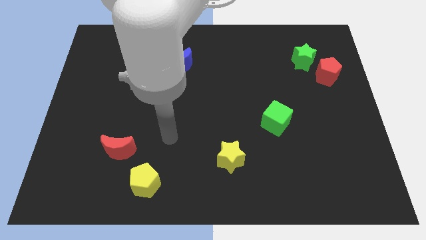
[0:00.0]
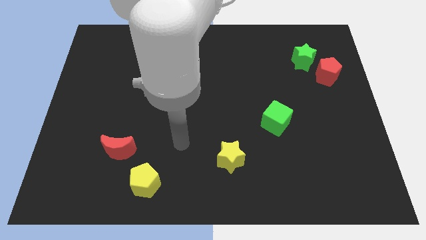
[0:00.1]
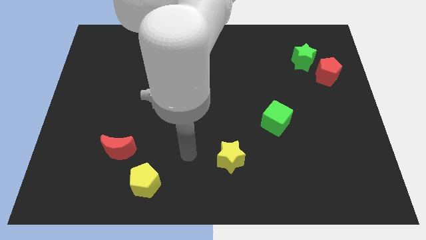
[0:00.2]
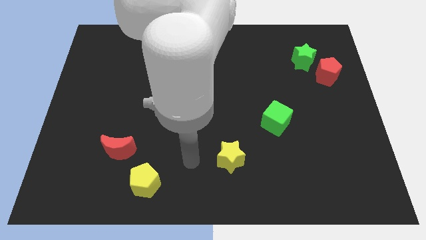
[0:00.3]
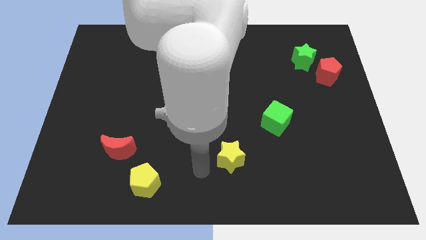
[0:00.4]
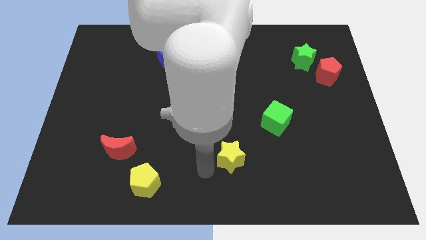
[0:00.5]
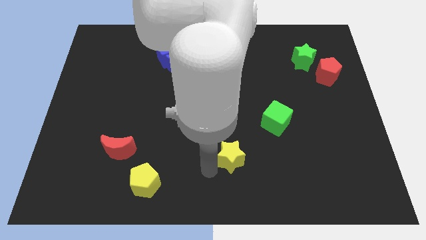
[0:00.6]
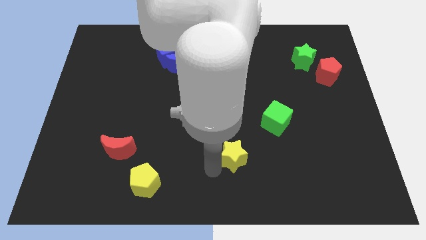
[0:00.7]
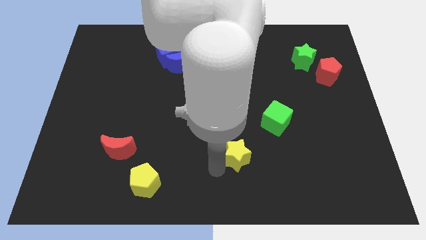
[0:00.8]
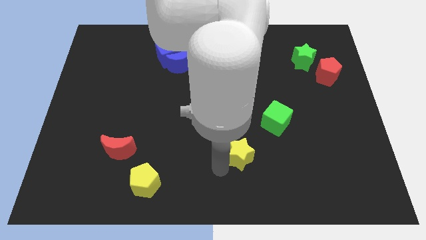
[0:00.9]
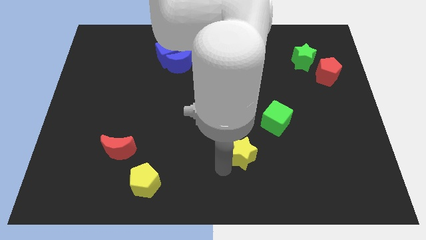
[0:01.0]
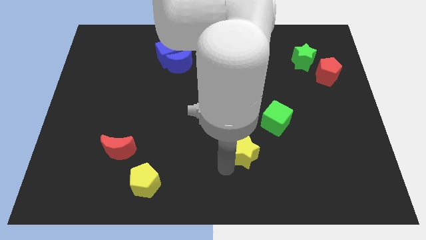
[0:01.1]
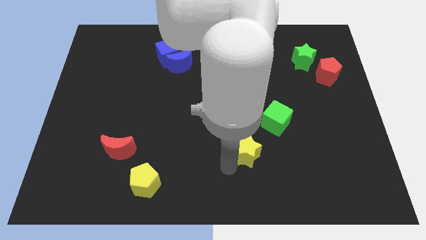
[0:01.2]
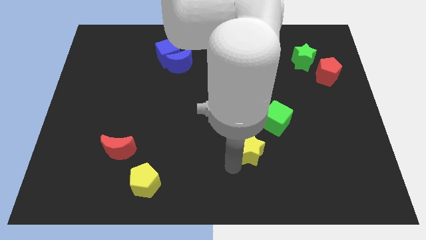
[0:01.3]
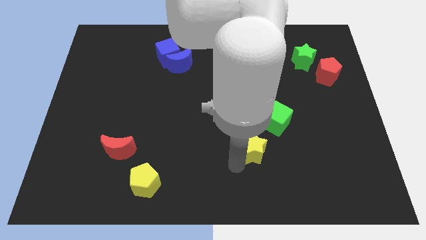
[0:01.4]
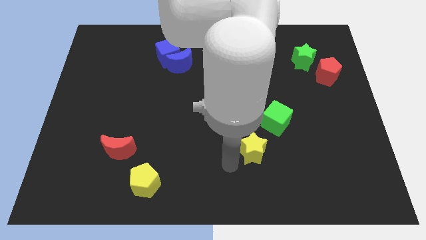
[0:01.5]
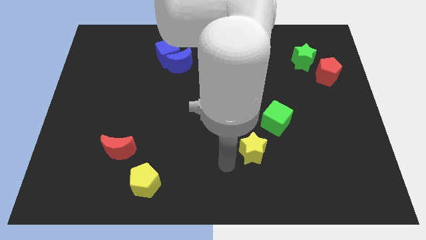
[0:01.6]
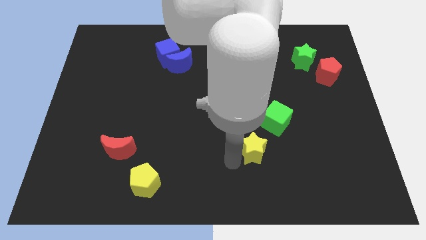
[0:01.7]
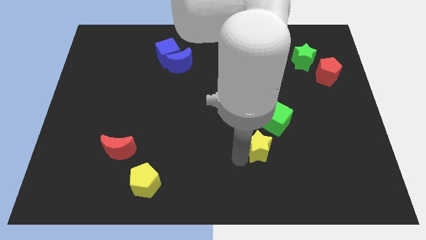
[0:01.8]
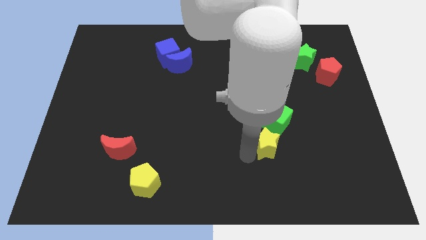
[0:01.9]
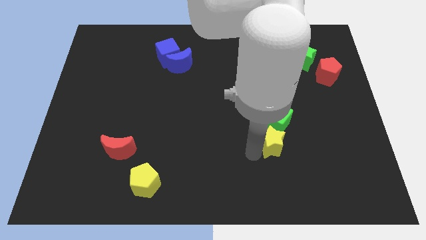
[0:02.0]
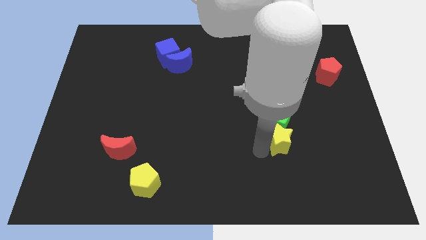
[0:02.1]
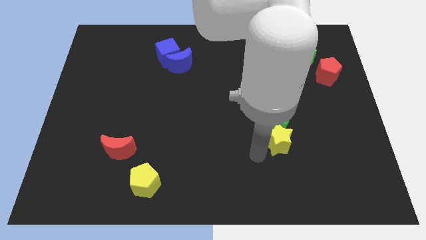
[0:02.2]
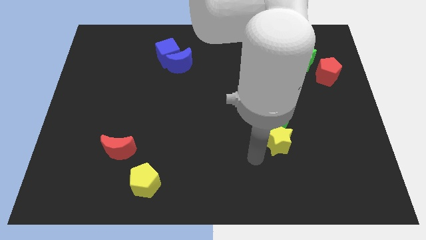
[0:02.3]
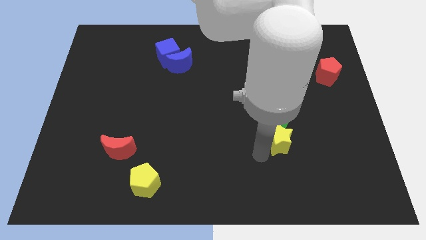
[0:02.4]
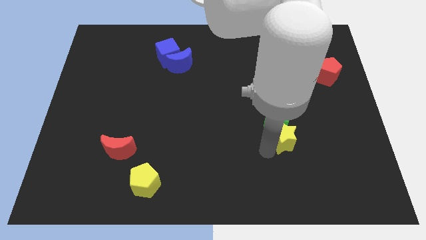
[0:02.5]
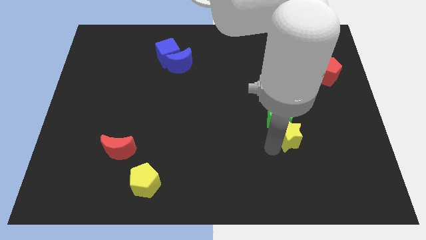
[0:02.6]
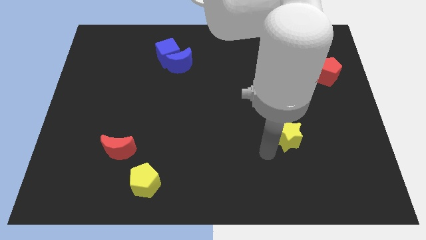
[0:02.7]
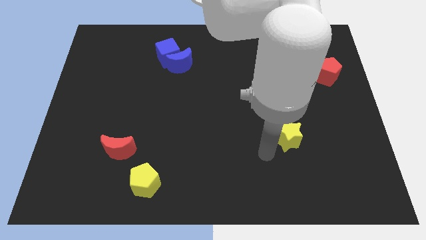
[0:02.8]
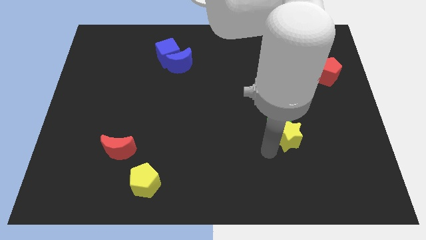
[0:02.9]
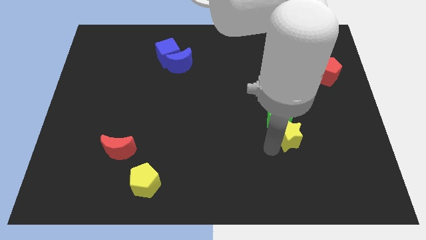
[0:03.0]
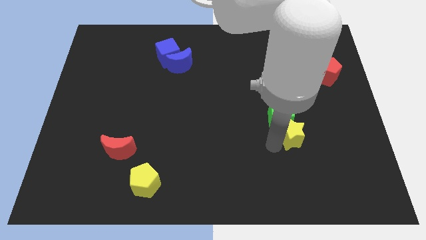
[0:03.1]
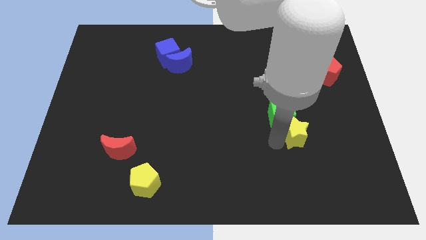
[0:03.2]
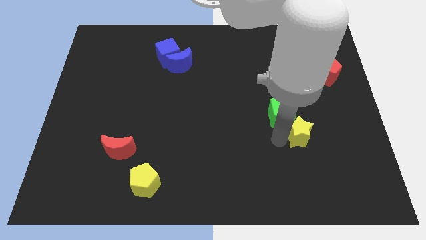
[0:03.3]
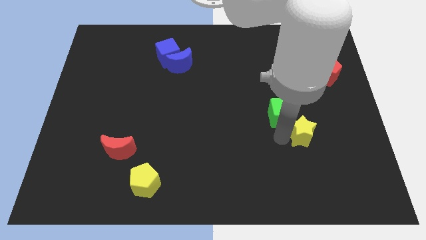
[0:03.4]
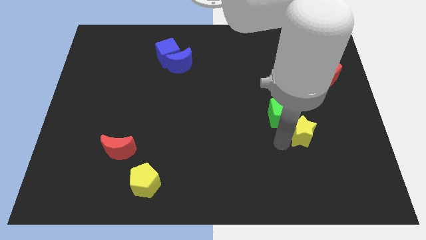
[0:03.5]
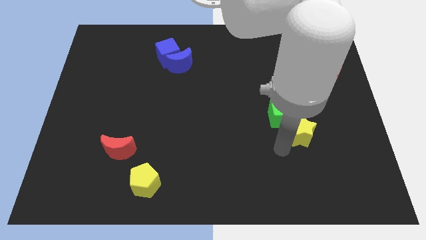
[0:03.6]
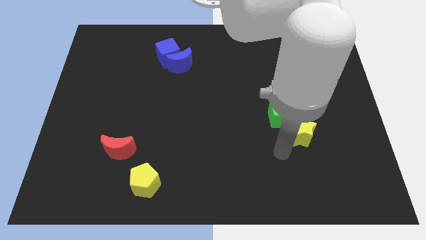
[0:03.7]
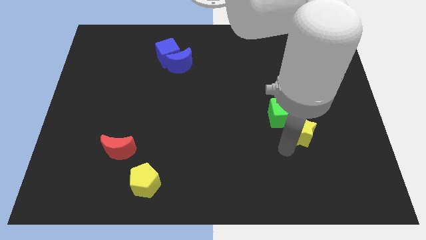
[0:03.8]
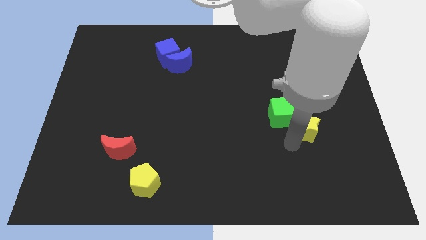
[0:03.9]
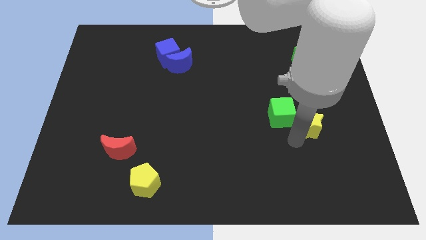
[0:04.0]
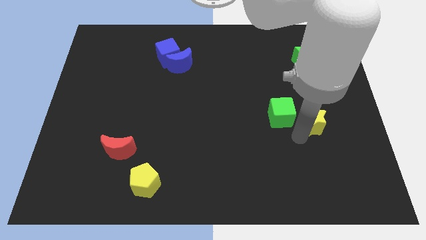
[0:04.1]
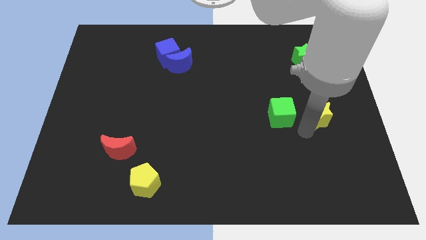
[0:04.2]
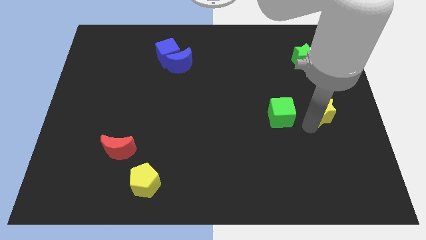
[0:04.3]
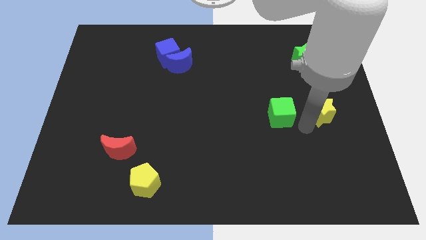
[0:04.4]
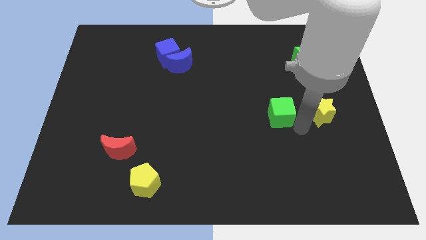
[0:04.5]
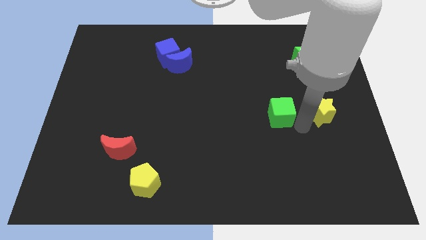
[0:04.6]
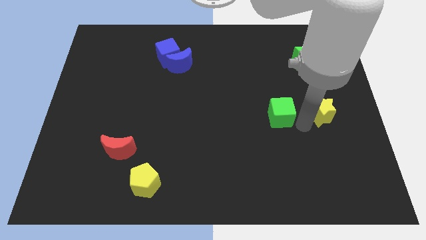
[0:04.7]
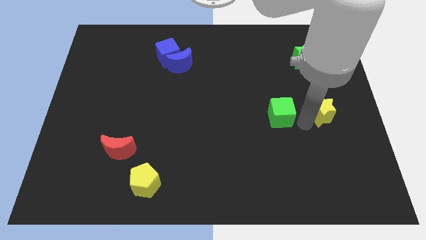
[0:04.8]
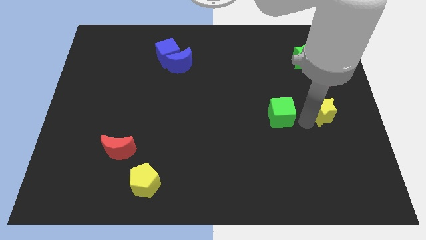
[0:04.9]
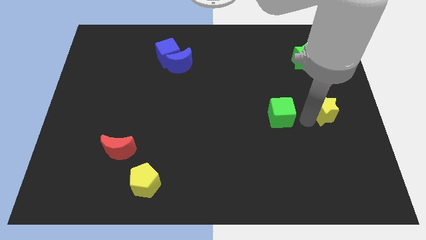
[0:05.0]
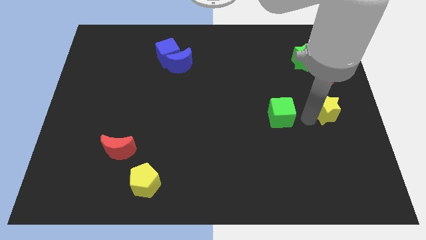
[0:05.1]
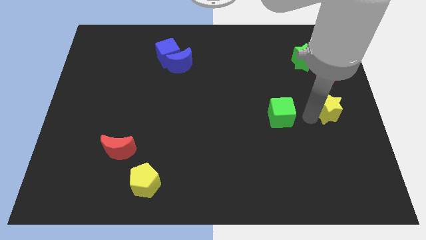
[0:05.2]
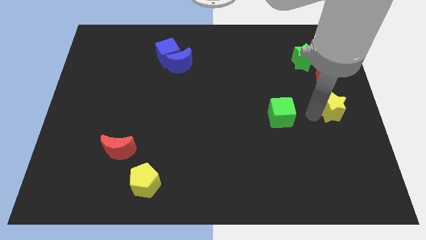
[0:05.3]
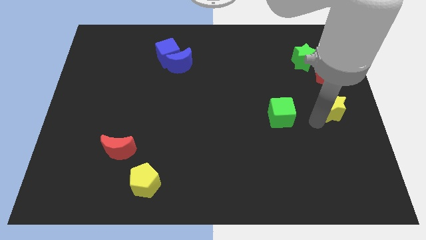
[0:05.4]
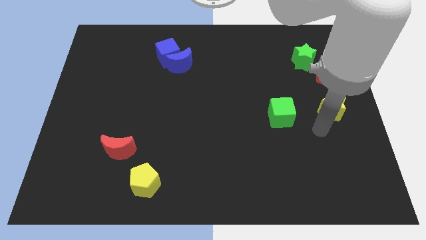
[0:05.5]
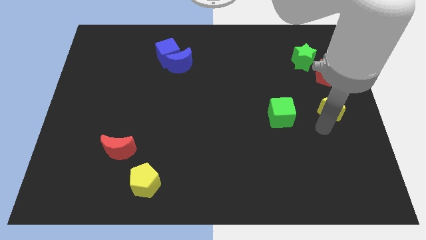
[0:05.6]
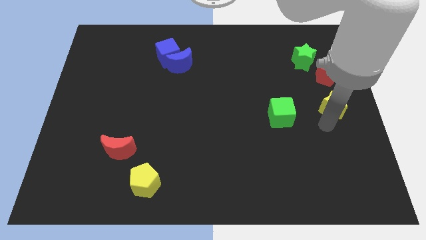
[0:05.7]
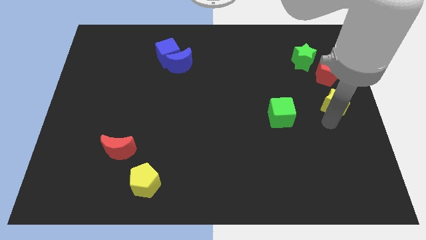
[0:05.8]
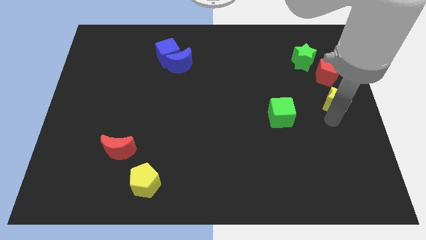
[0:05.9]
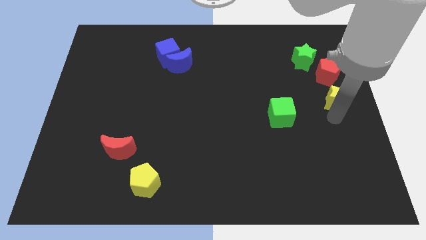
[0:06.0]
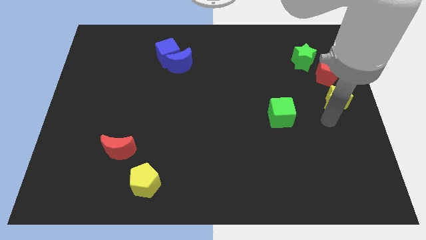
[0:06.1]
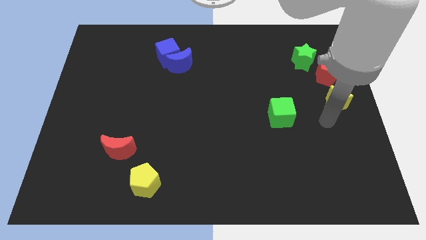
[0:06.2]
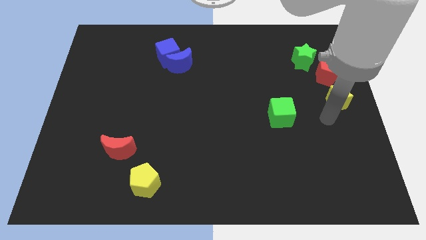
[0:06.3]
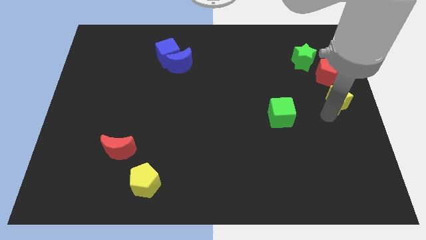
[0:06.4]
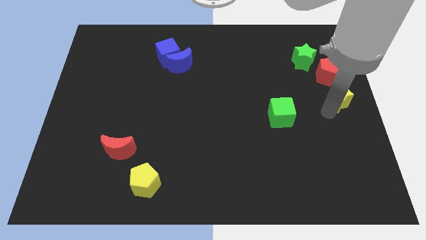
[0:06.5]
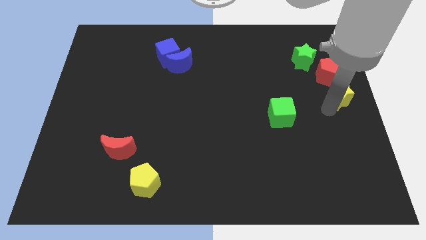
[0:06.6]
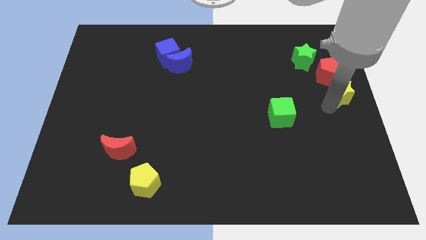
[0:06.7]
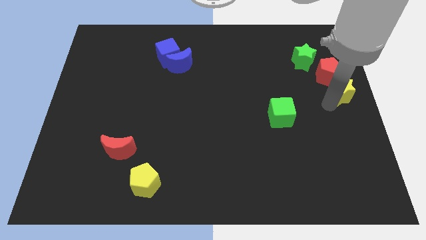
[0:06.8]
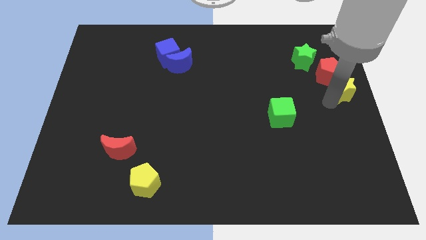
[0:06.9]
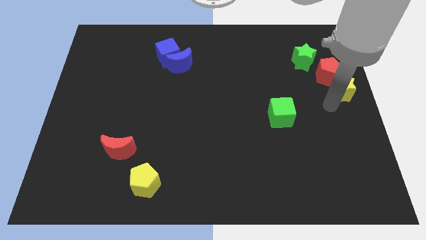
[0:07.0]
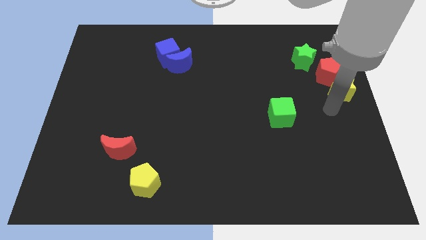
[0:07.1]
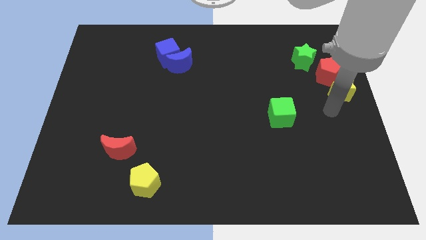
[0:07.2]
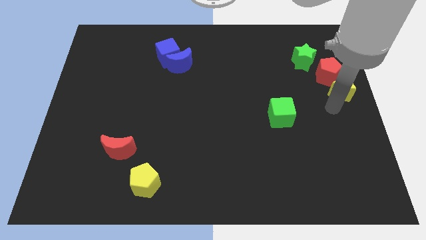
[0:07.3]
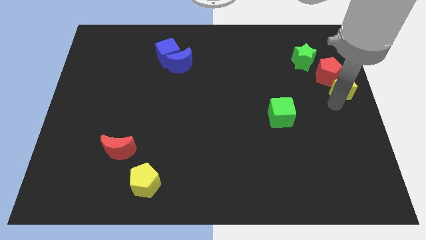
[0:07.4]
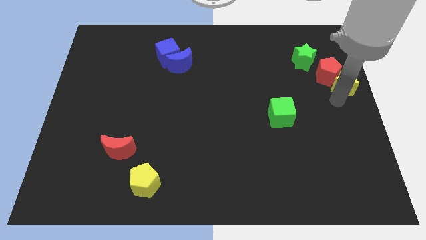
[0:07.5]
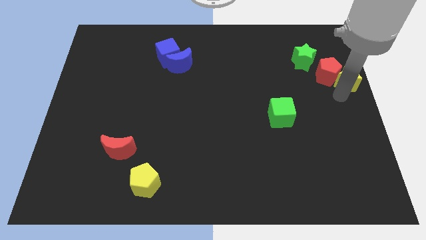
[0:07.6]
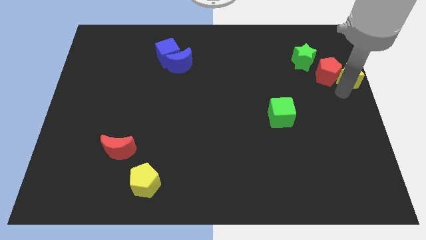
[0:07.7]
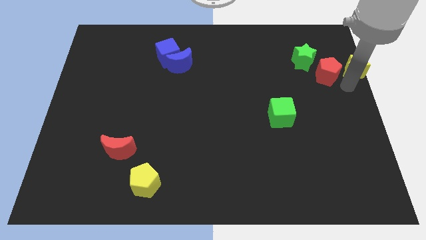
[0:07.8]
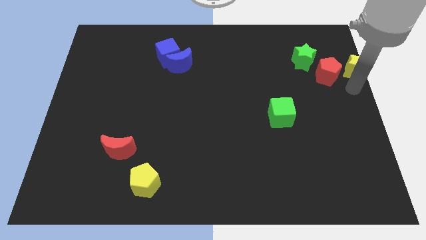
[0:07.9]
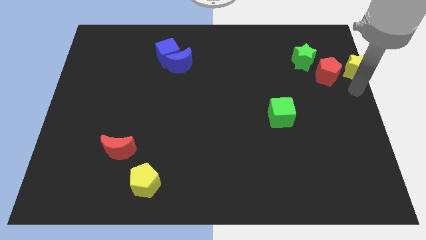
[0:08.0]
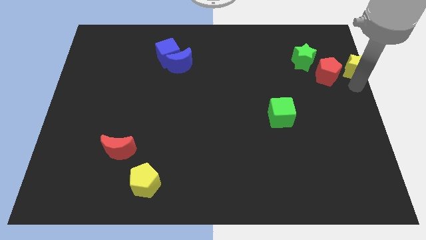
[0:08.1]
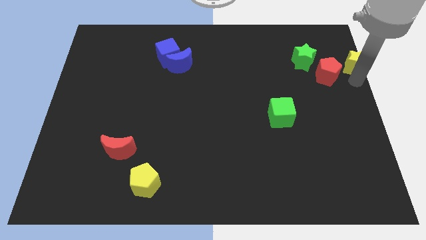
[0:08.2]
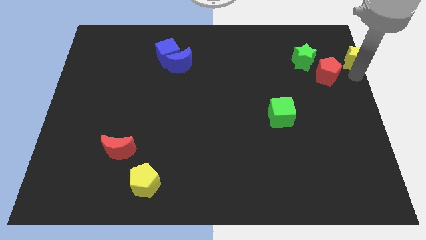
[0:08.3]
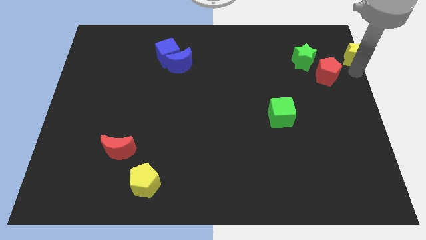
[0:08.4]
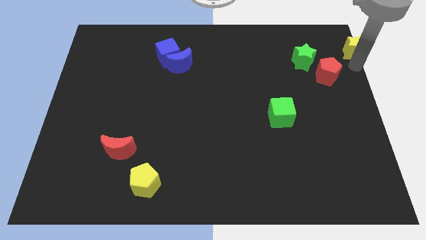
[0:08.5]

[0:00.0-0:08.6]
move the yellow star to the upper right corner
